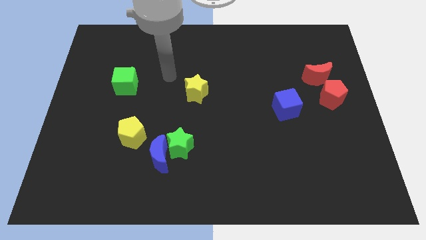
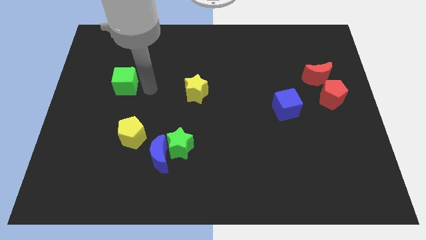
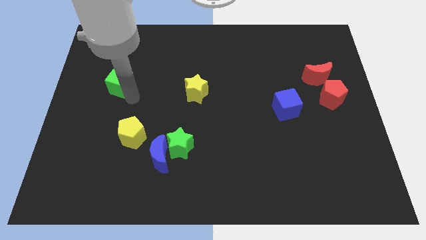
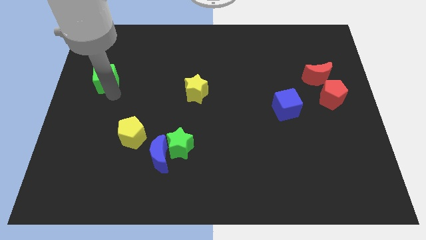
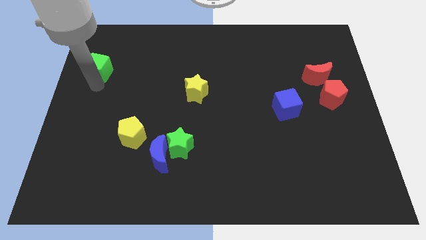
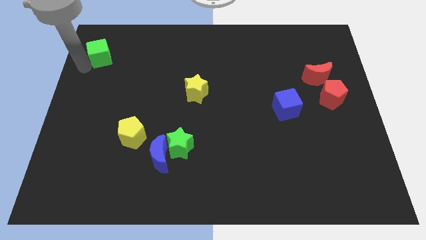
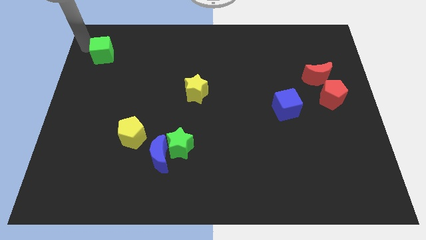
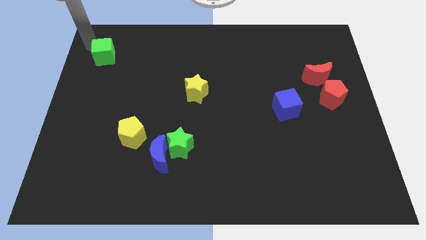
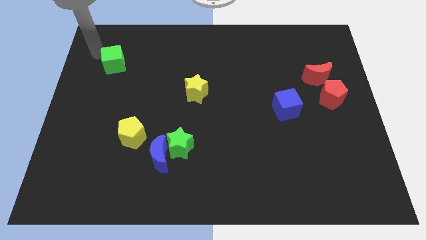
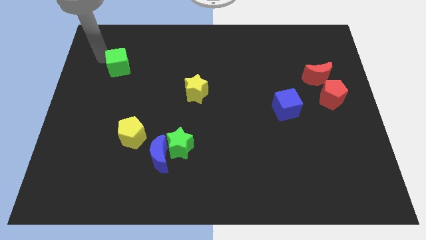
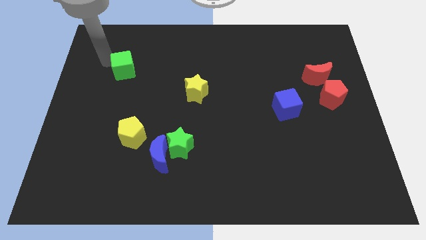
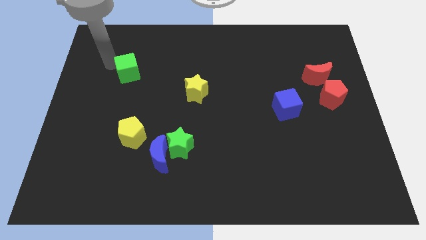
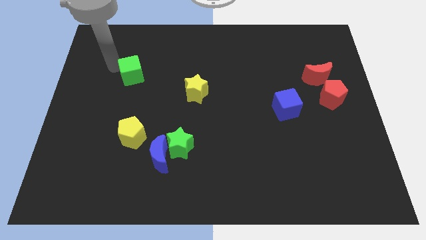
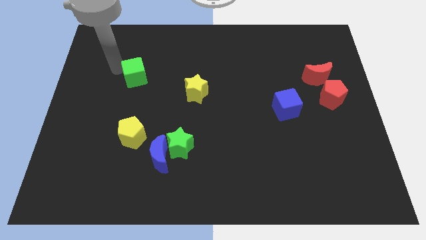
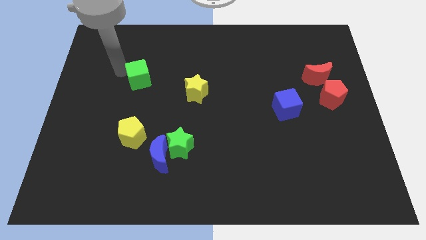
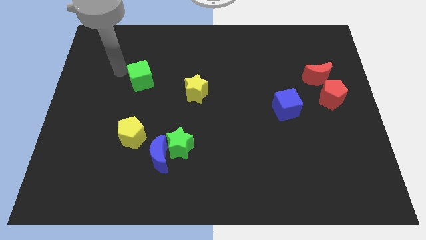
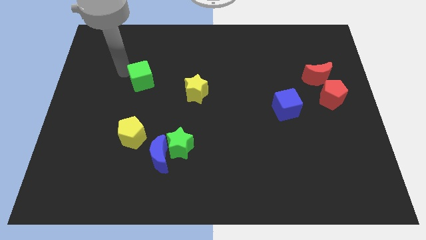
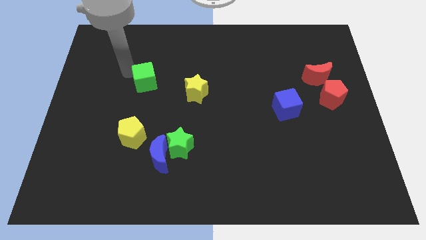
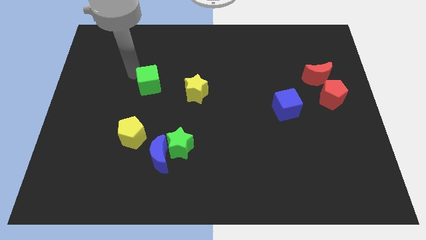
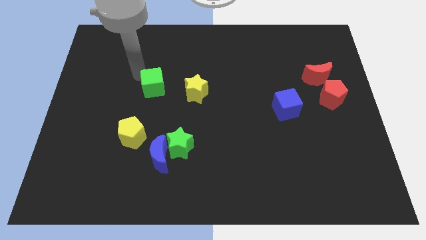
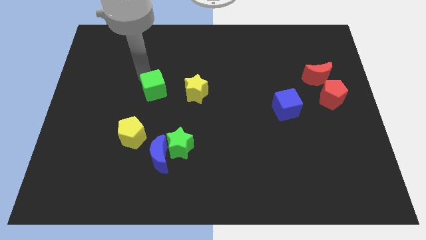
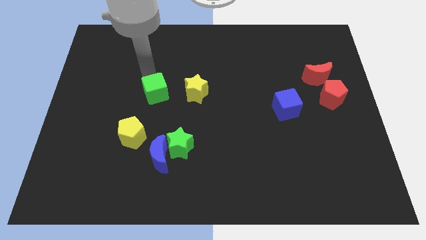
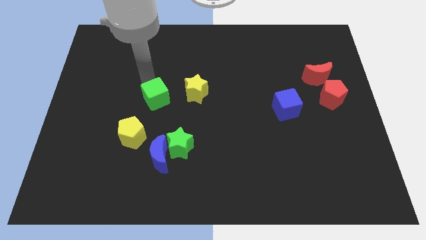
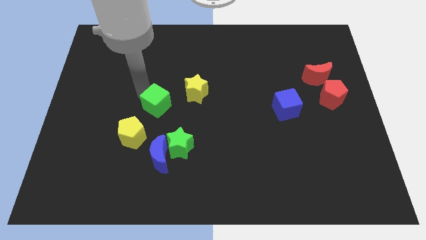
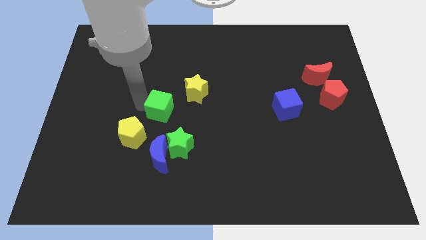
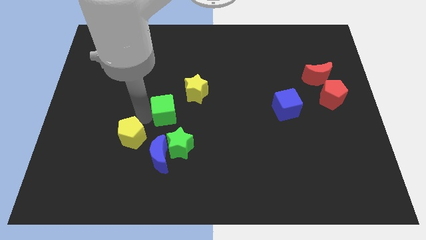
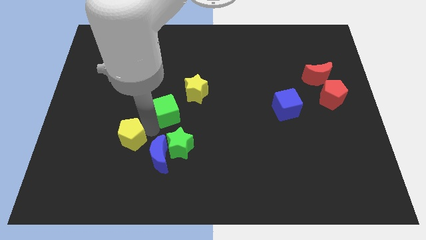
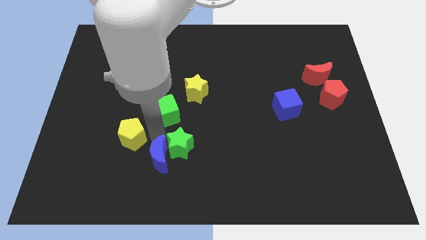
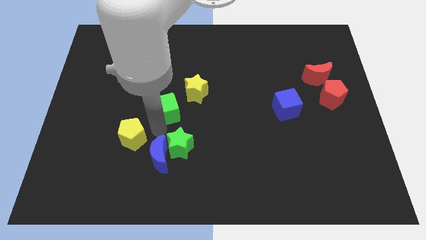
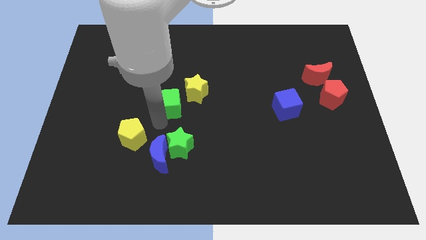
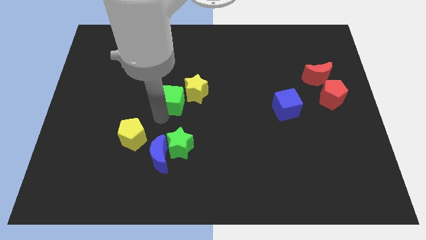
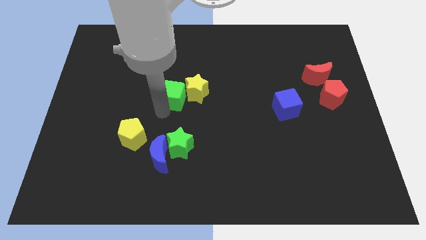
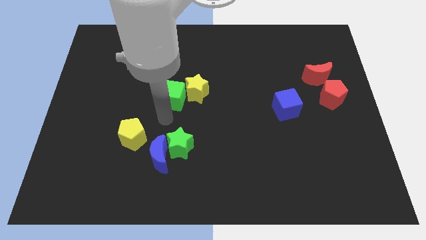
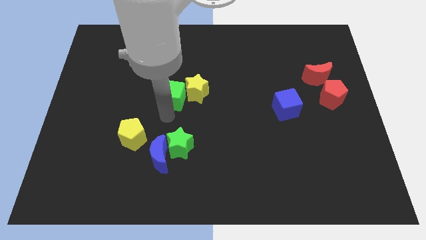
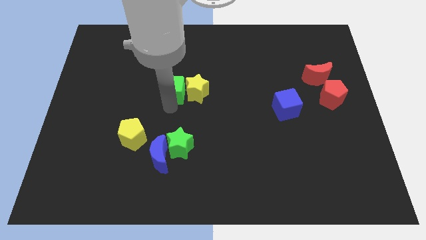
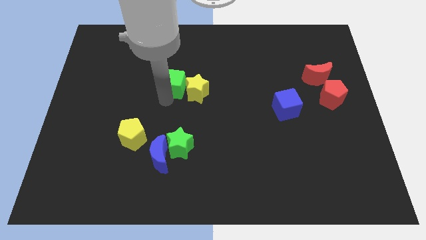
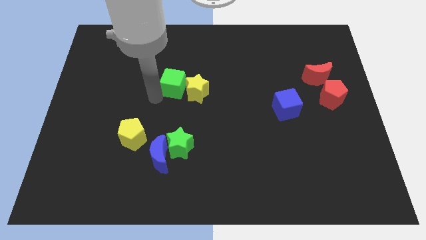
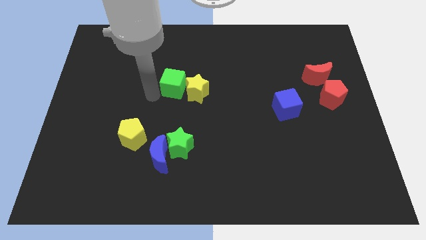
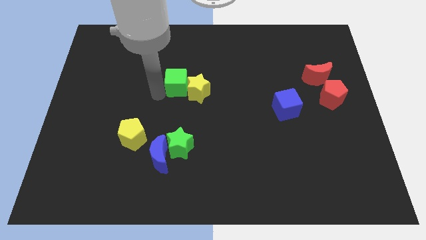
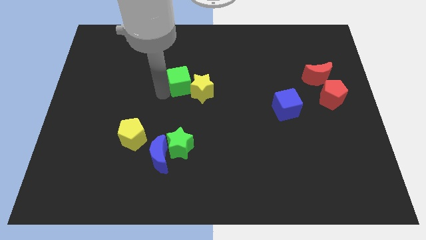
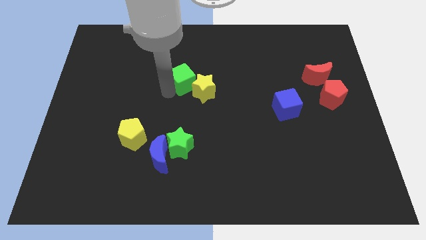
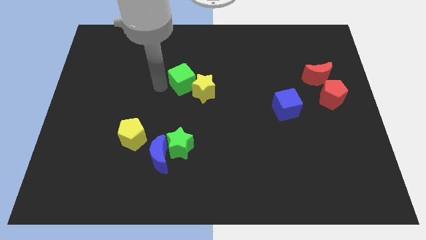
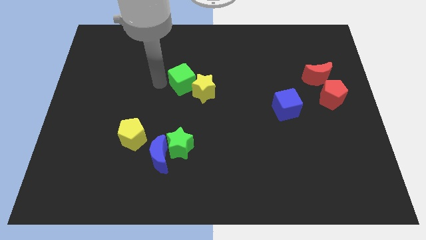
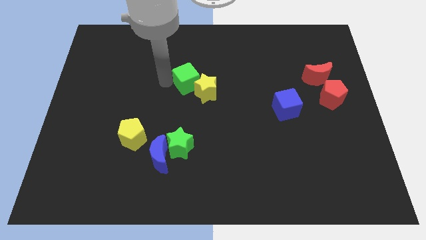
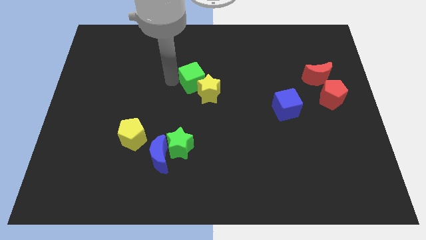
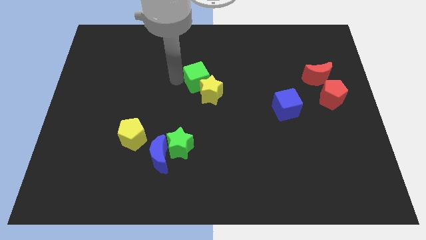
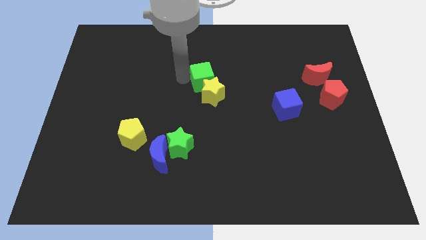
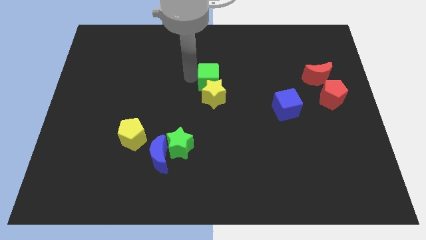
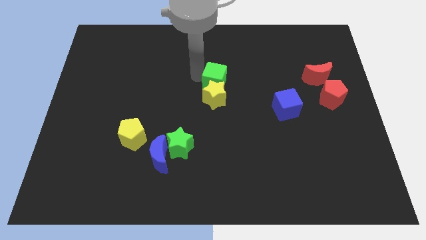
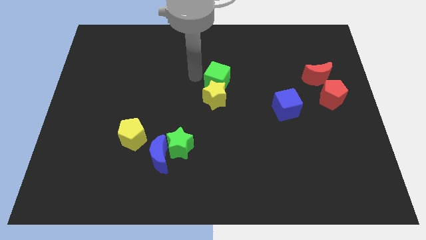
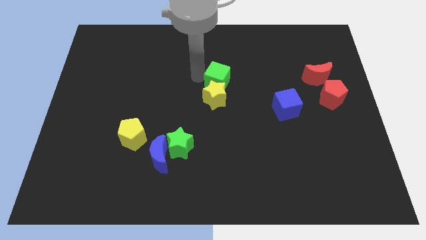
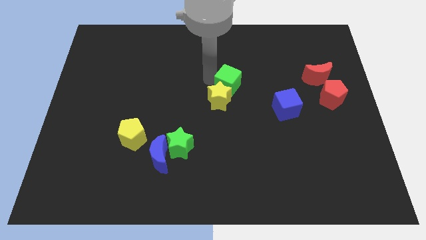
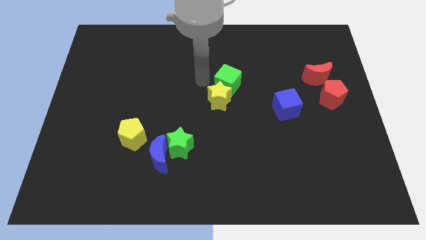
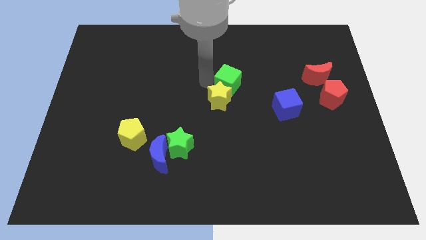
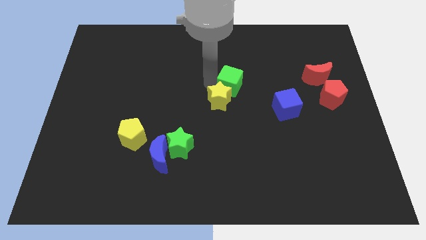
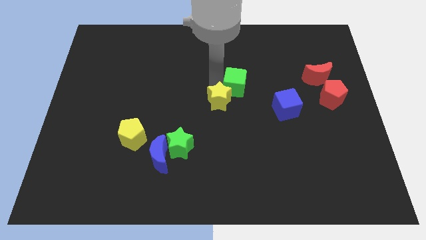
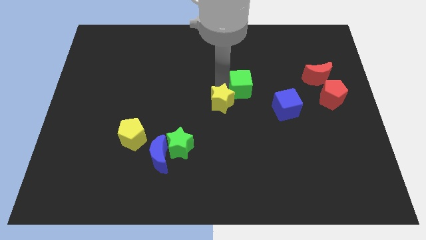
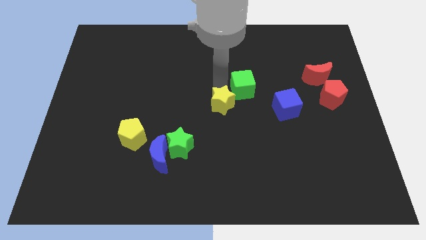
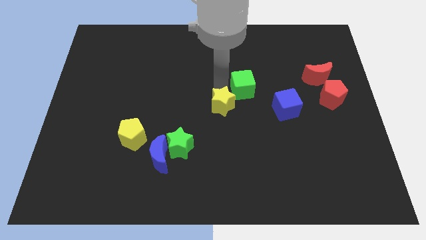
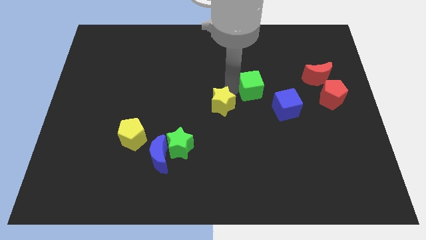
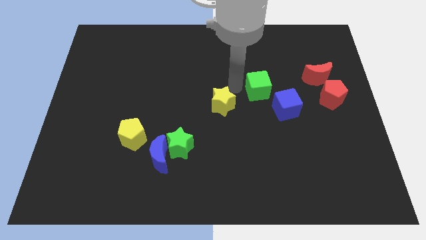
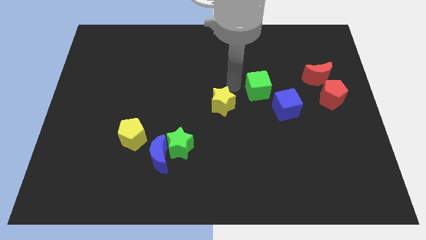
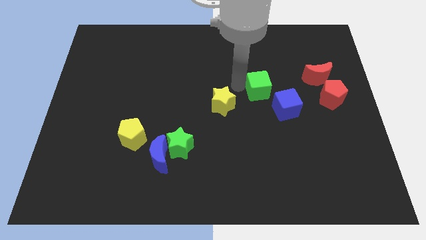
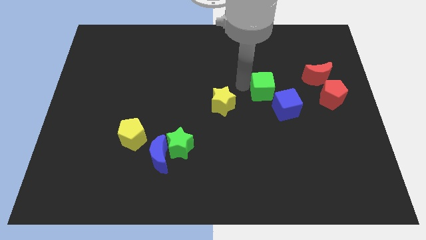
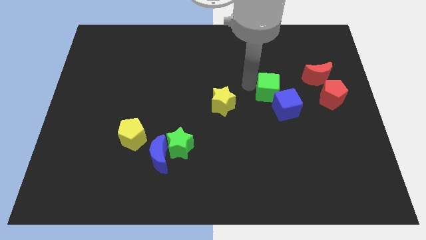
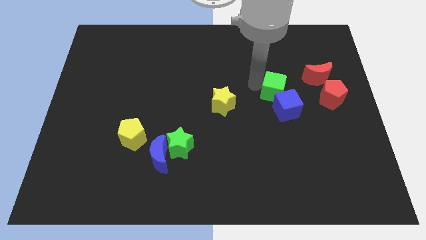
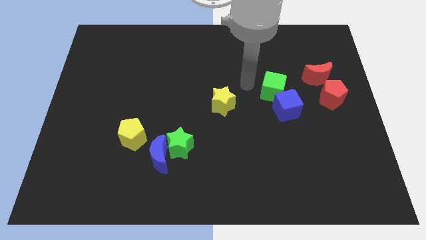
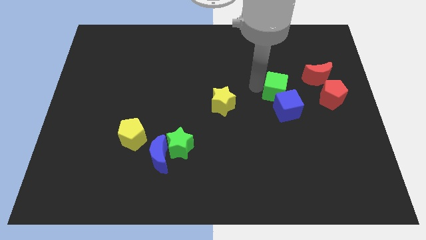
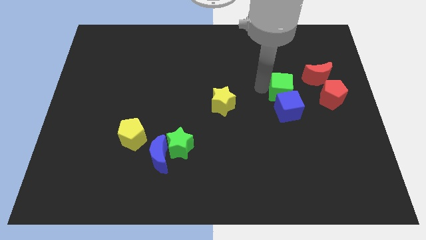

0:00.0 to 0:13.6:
put the green cube to the top right of the blue cube
